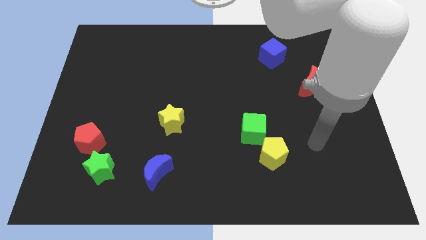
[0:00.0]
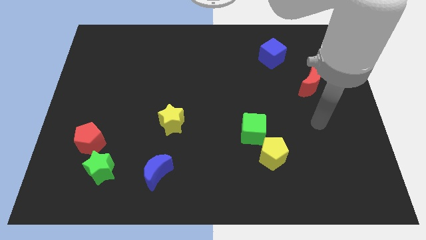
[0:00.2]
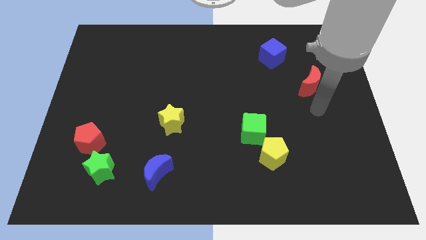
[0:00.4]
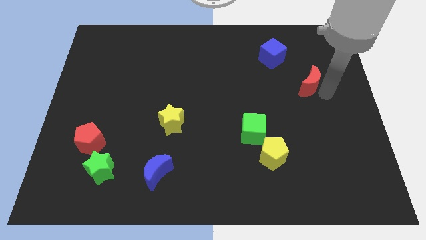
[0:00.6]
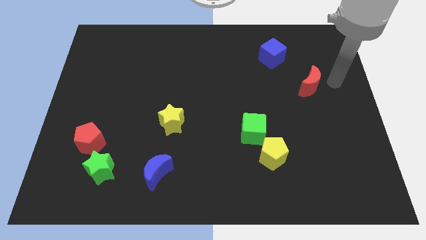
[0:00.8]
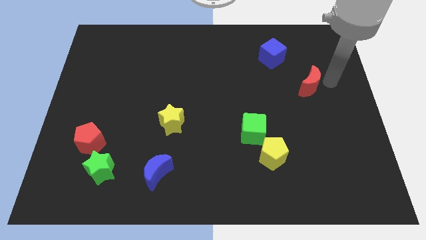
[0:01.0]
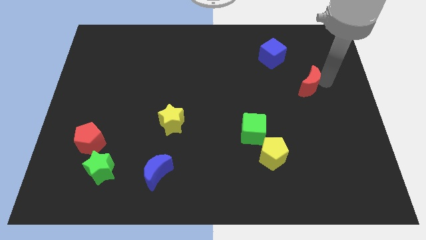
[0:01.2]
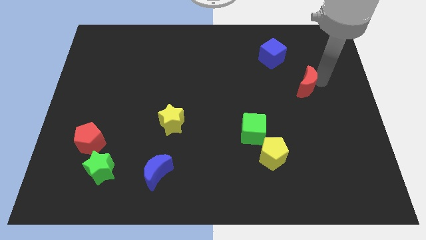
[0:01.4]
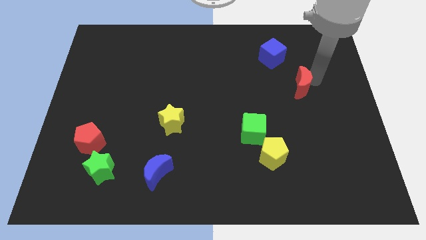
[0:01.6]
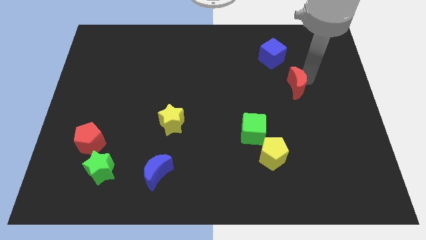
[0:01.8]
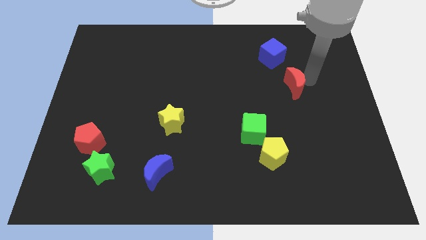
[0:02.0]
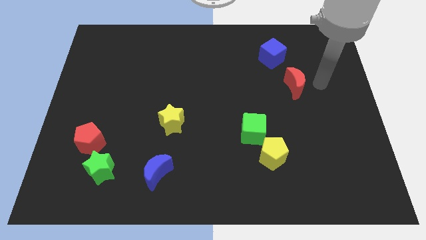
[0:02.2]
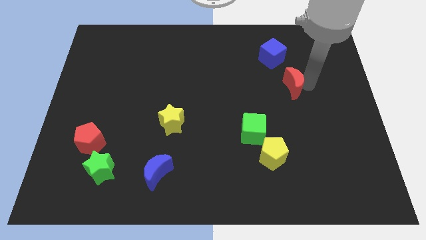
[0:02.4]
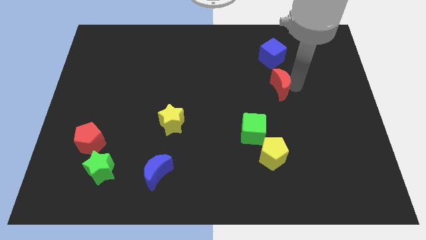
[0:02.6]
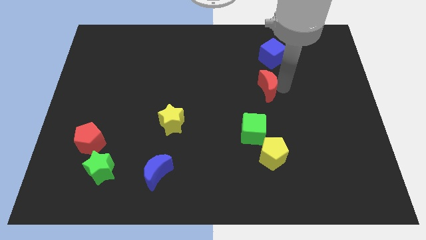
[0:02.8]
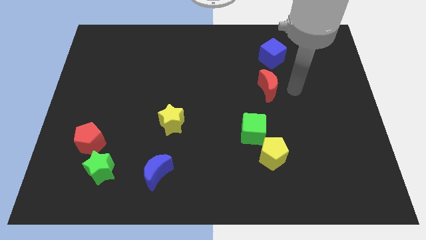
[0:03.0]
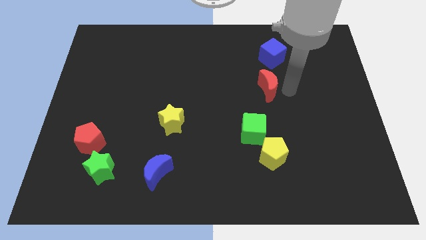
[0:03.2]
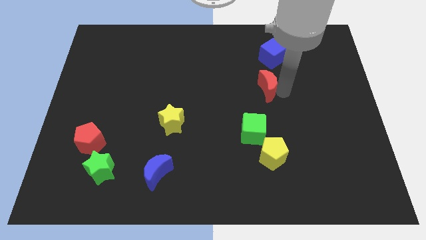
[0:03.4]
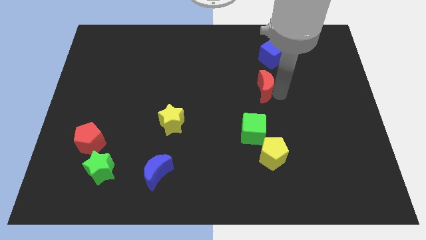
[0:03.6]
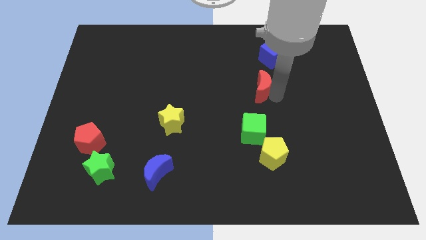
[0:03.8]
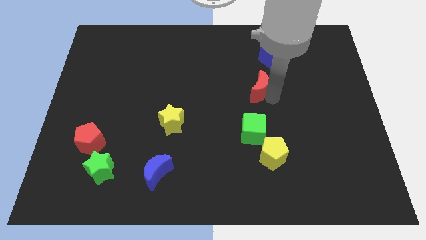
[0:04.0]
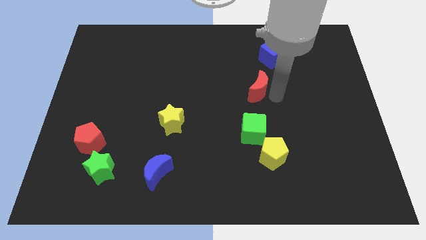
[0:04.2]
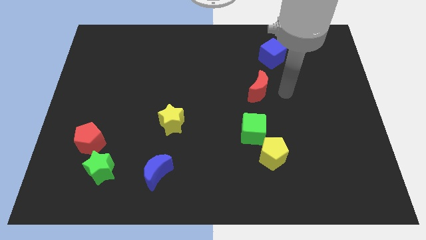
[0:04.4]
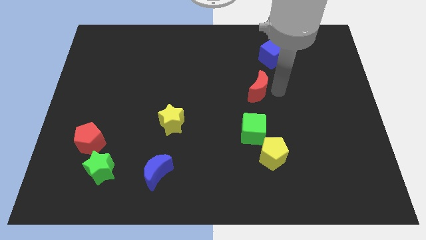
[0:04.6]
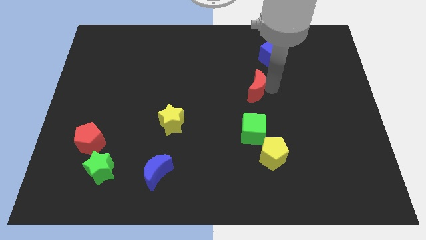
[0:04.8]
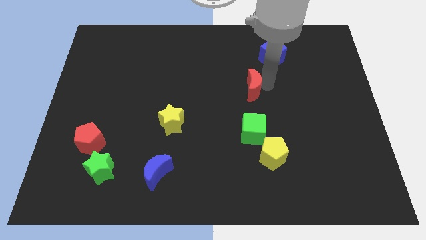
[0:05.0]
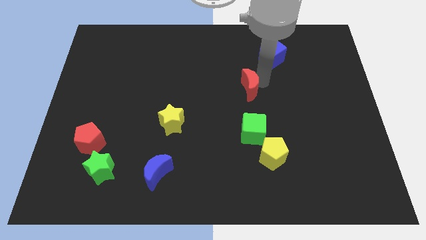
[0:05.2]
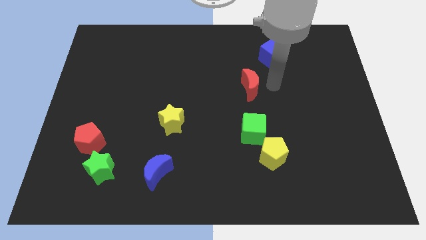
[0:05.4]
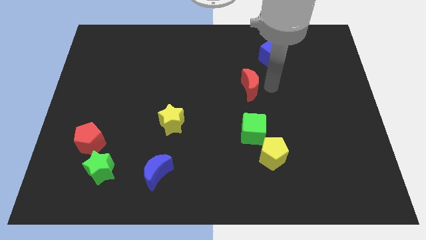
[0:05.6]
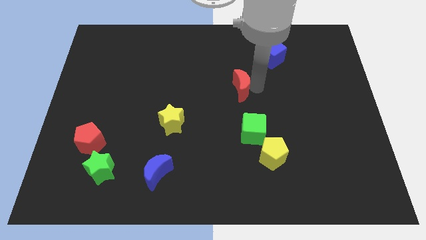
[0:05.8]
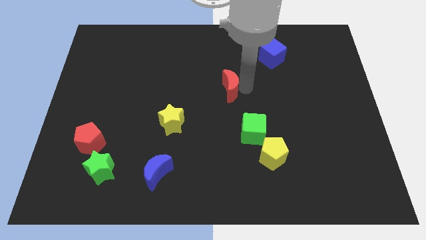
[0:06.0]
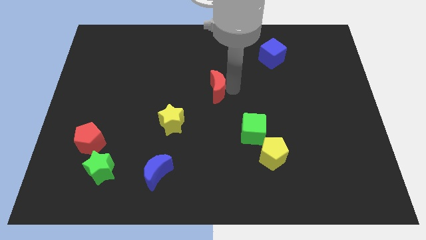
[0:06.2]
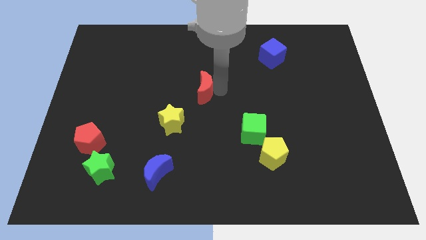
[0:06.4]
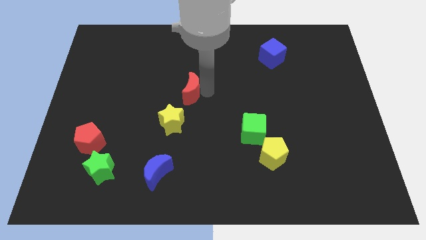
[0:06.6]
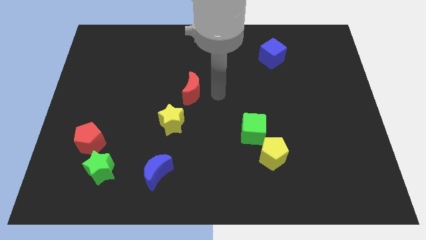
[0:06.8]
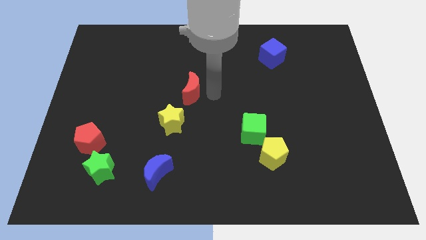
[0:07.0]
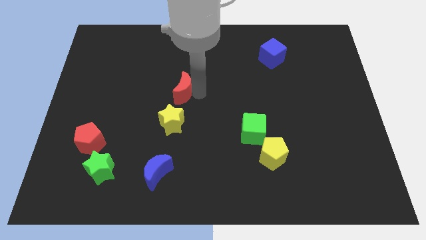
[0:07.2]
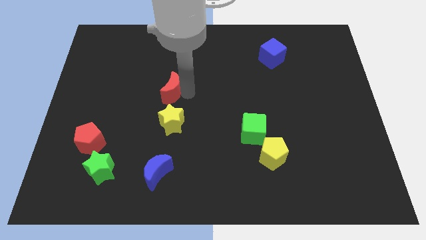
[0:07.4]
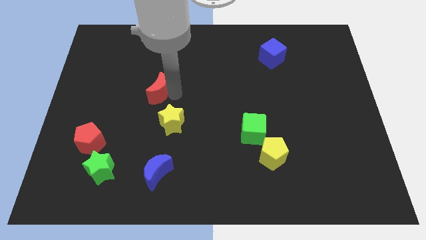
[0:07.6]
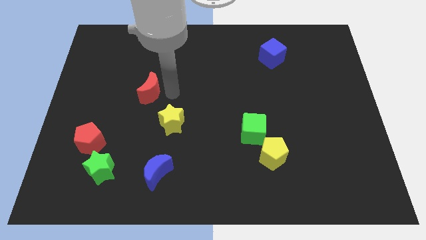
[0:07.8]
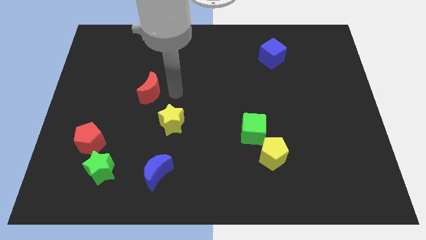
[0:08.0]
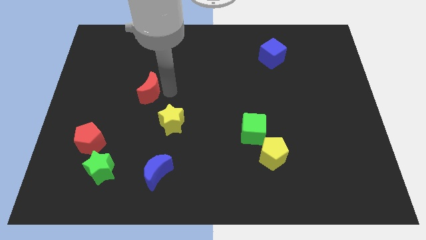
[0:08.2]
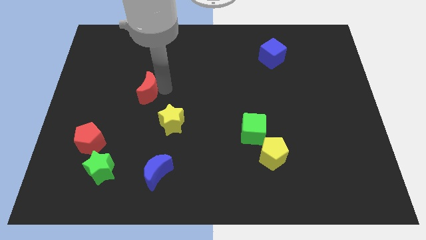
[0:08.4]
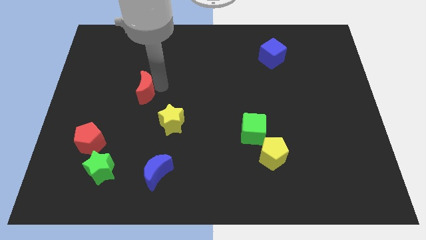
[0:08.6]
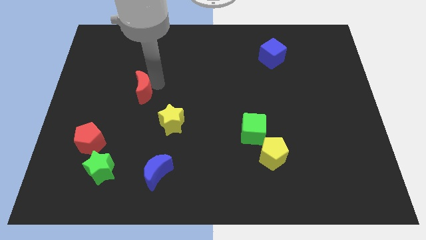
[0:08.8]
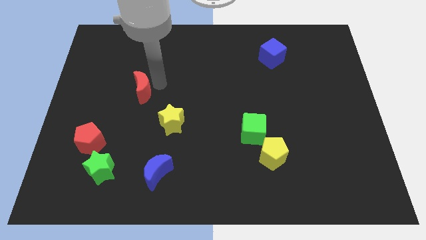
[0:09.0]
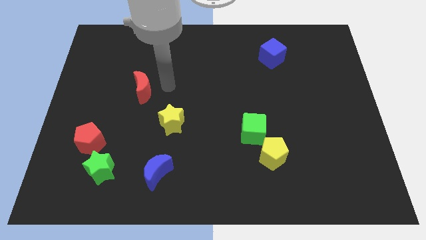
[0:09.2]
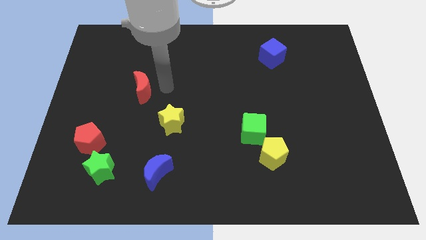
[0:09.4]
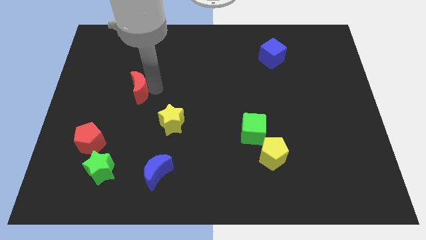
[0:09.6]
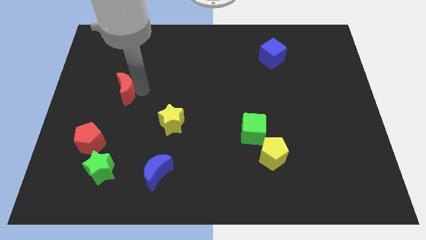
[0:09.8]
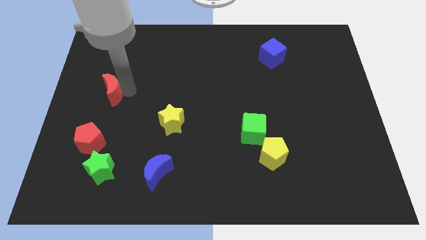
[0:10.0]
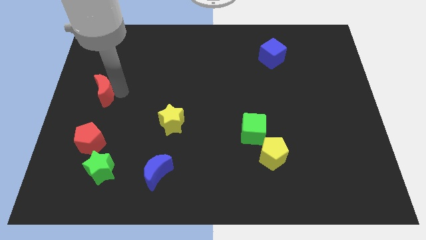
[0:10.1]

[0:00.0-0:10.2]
move the red moon to the left side of the board

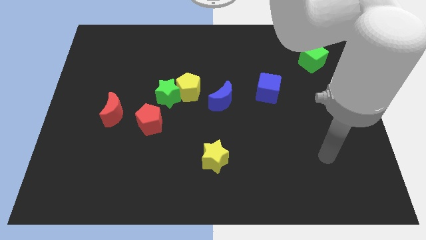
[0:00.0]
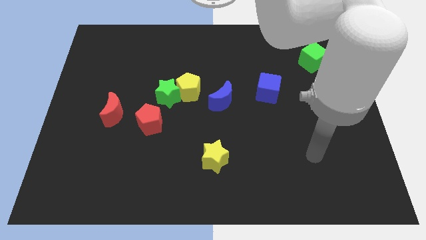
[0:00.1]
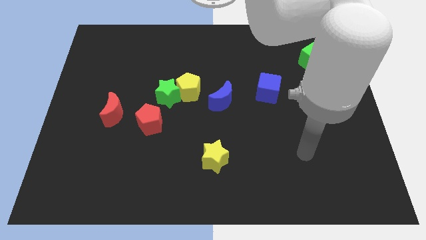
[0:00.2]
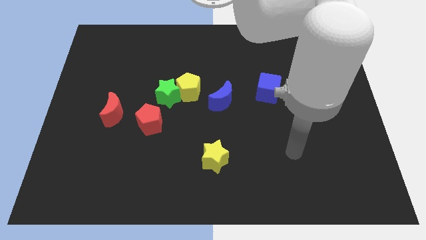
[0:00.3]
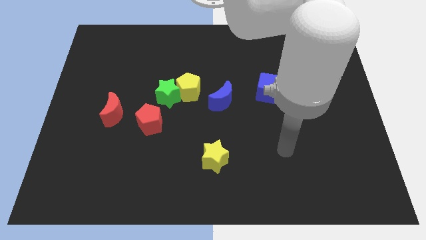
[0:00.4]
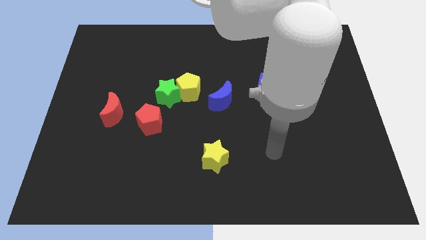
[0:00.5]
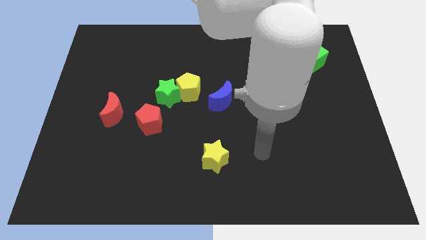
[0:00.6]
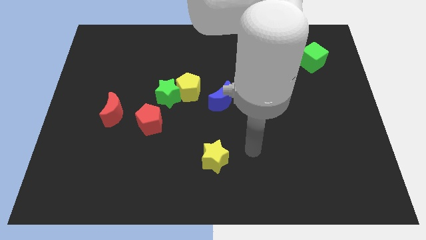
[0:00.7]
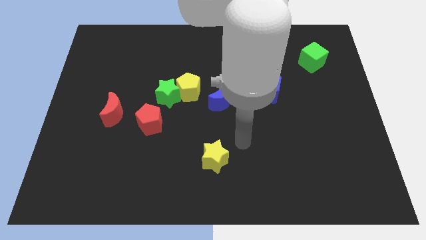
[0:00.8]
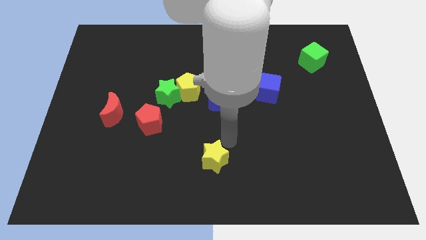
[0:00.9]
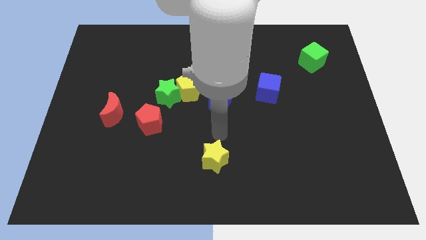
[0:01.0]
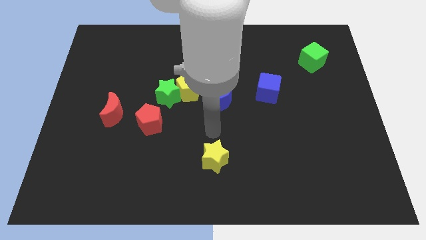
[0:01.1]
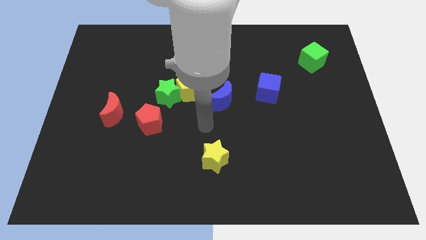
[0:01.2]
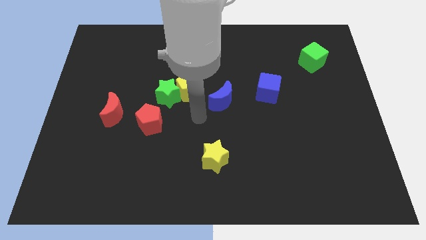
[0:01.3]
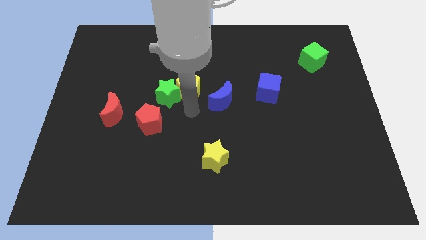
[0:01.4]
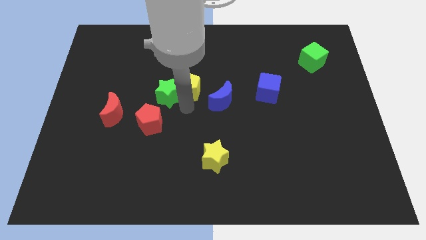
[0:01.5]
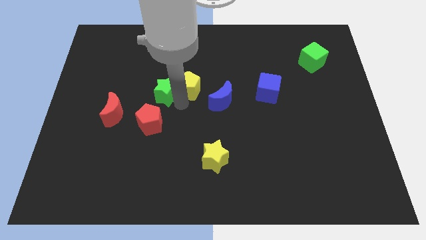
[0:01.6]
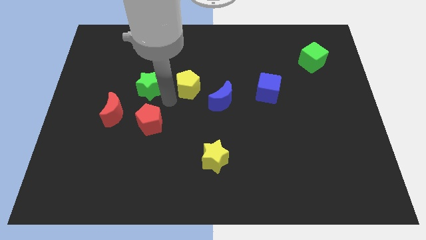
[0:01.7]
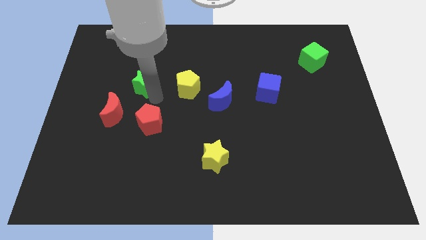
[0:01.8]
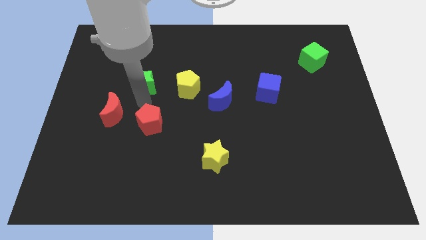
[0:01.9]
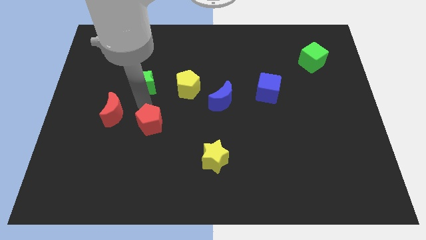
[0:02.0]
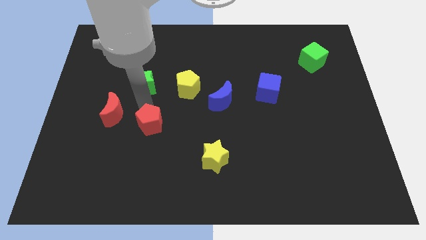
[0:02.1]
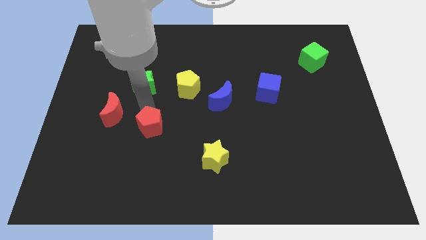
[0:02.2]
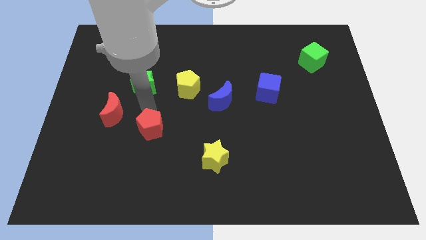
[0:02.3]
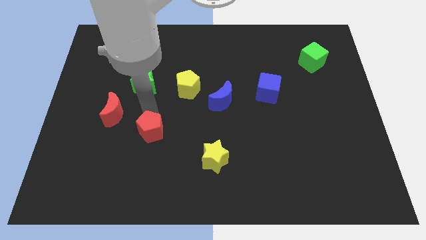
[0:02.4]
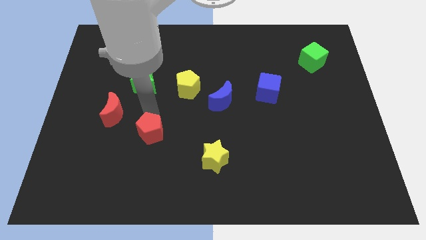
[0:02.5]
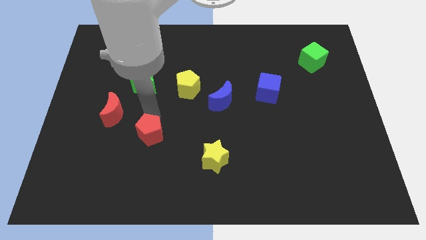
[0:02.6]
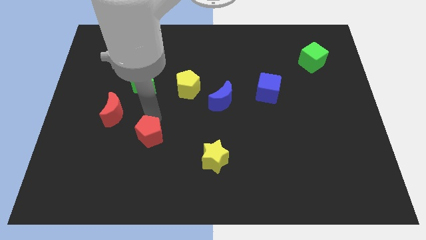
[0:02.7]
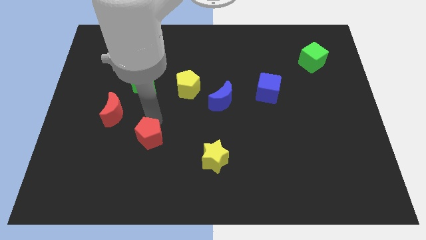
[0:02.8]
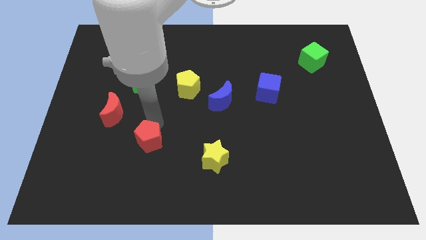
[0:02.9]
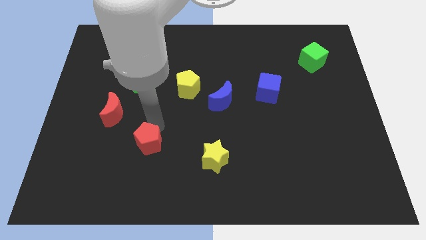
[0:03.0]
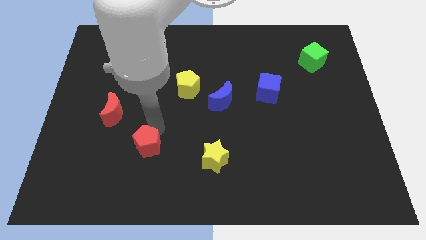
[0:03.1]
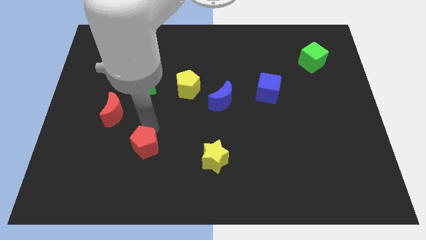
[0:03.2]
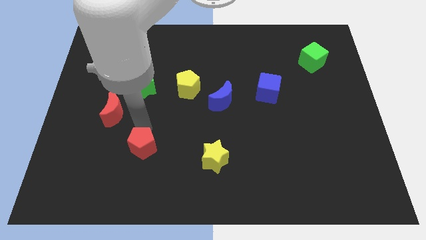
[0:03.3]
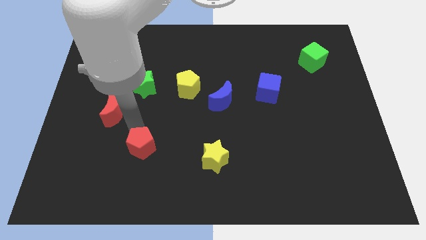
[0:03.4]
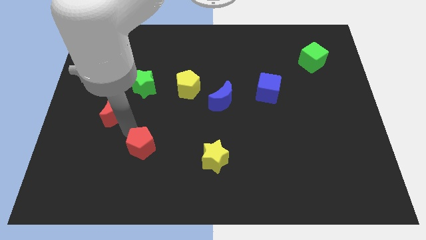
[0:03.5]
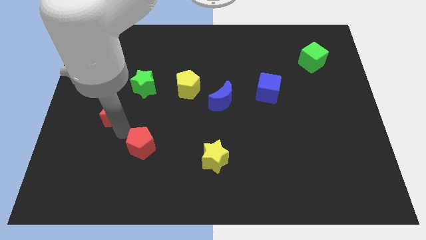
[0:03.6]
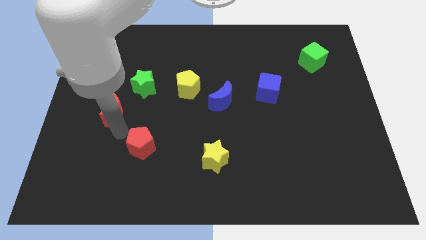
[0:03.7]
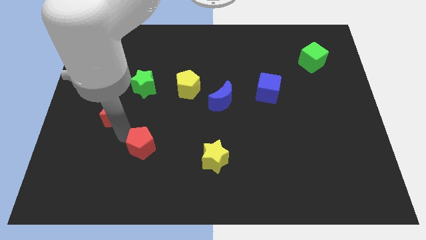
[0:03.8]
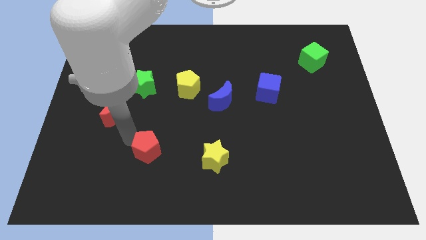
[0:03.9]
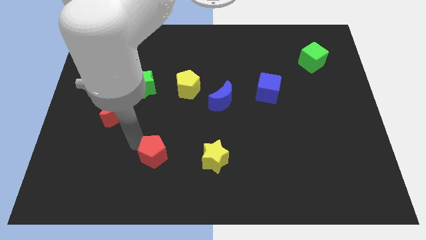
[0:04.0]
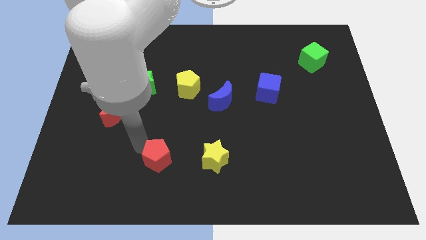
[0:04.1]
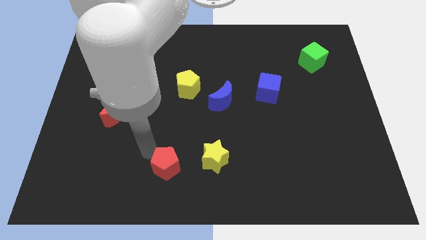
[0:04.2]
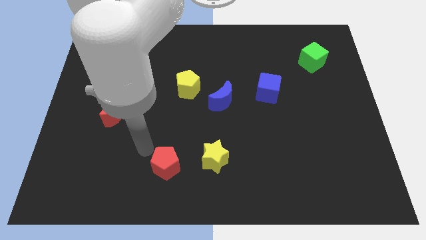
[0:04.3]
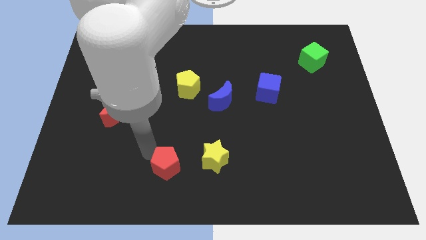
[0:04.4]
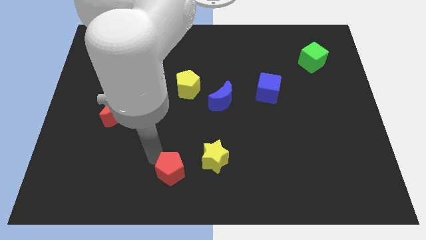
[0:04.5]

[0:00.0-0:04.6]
put the red pentagon to the bottom
